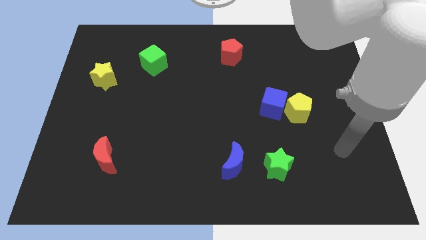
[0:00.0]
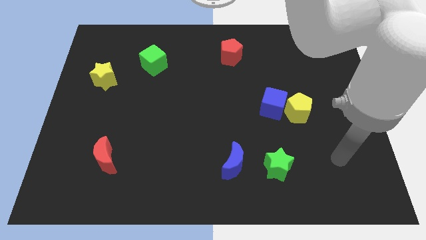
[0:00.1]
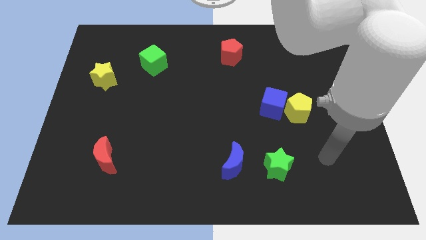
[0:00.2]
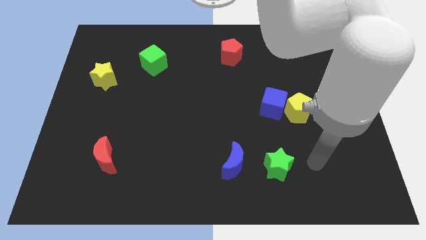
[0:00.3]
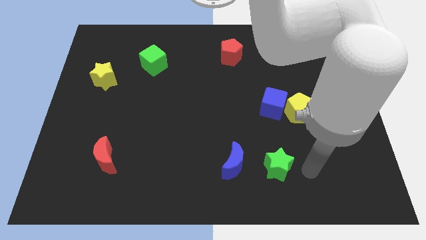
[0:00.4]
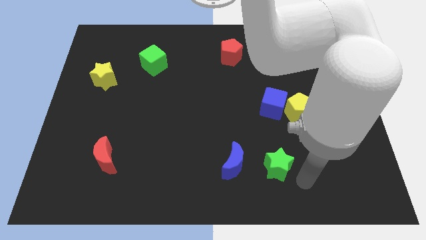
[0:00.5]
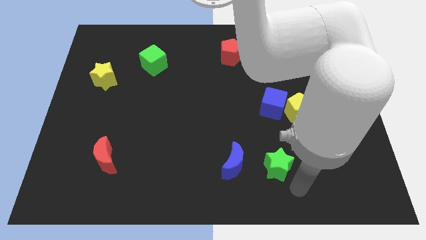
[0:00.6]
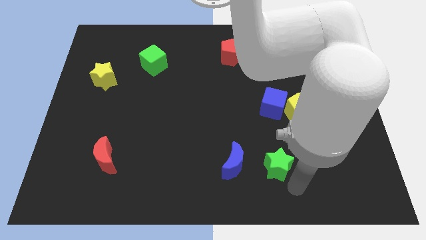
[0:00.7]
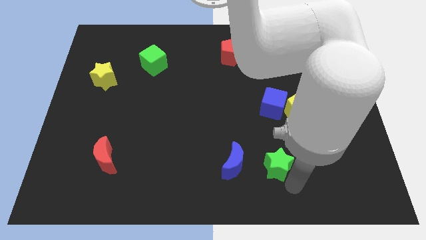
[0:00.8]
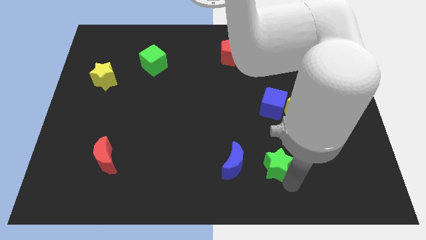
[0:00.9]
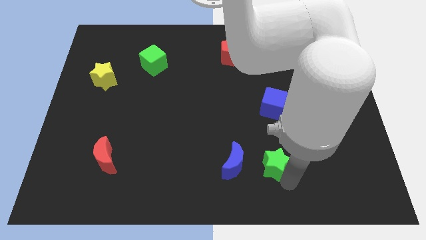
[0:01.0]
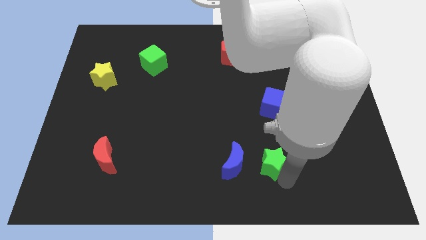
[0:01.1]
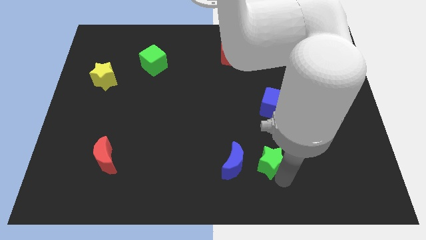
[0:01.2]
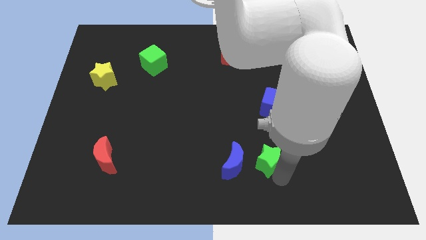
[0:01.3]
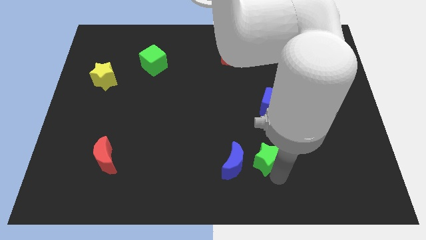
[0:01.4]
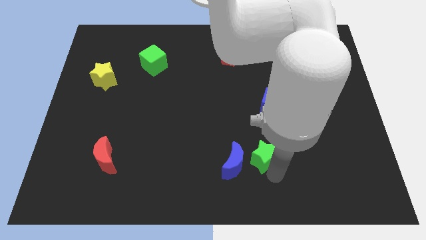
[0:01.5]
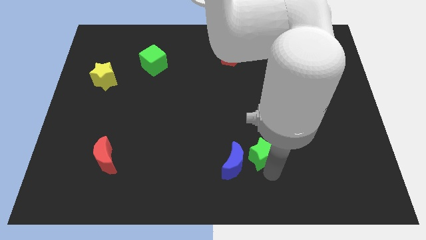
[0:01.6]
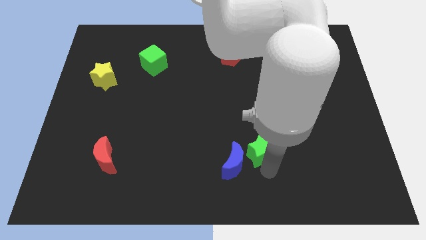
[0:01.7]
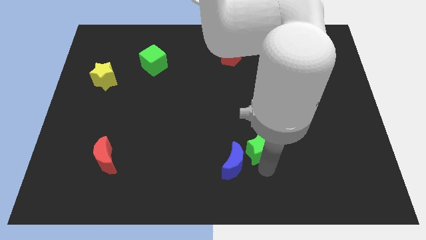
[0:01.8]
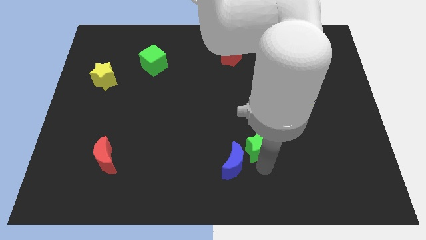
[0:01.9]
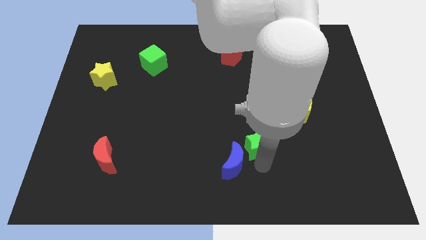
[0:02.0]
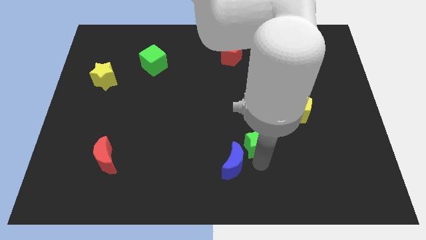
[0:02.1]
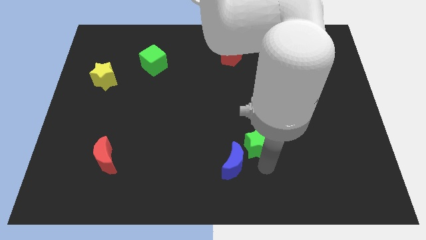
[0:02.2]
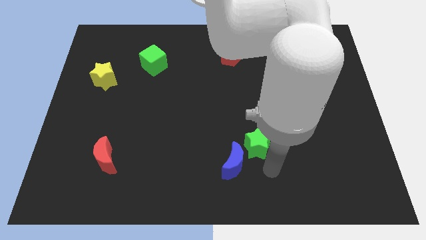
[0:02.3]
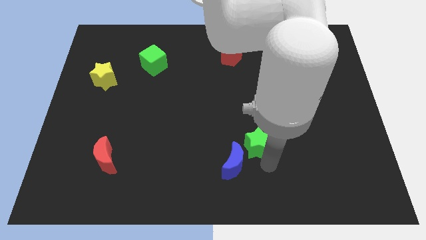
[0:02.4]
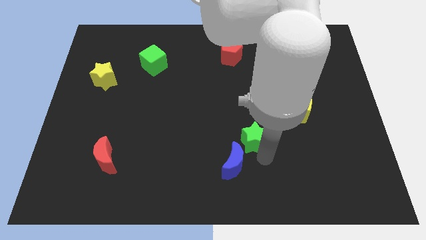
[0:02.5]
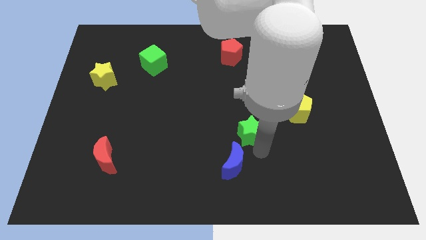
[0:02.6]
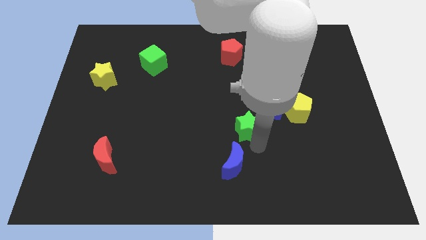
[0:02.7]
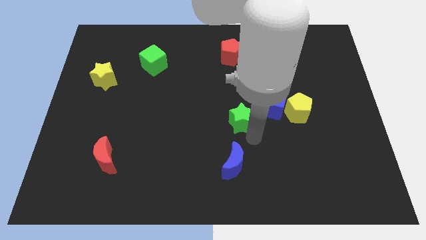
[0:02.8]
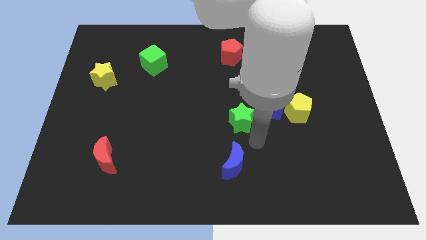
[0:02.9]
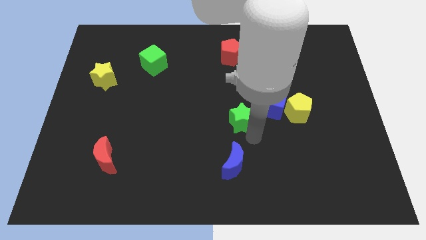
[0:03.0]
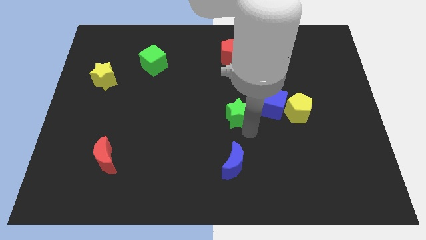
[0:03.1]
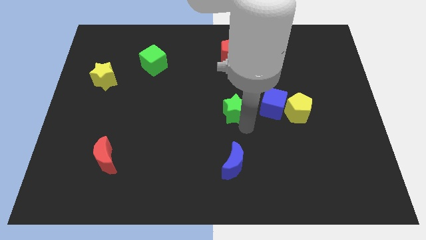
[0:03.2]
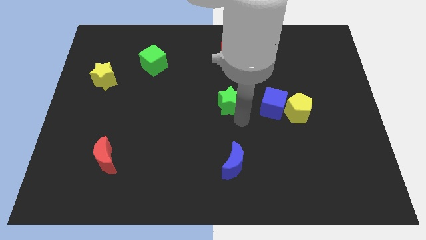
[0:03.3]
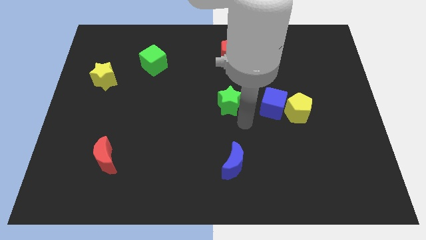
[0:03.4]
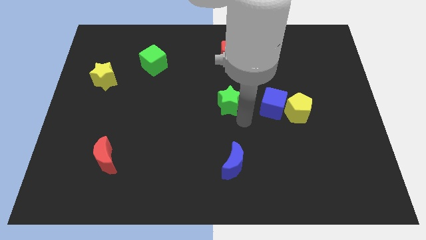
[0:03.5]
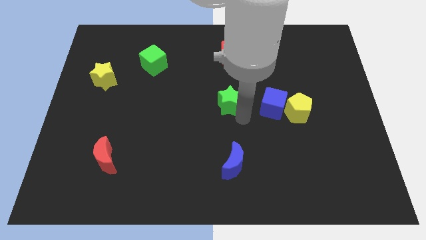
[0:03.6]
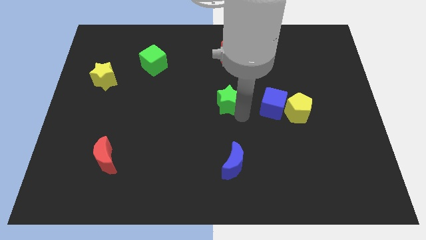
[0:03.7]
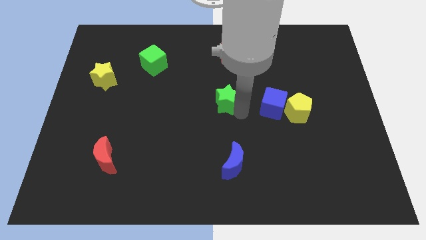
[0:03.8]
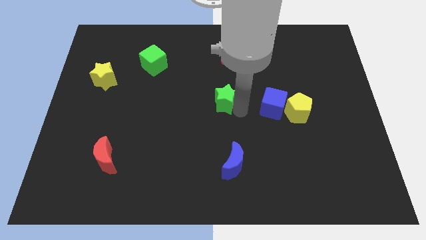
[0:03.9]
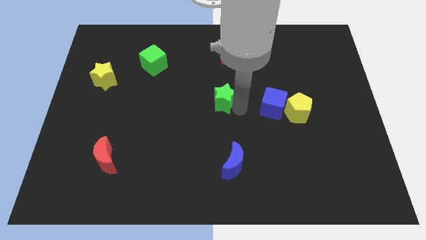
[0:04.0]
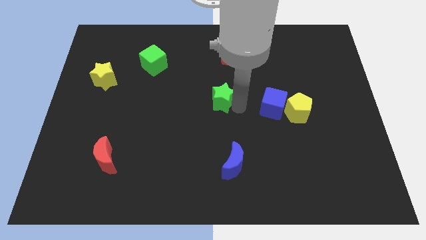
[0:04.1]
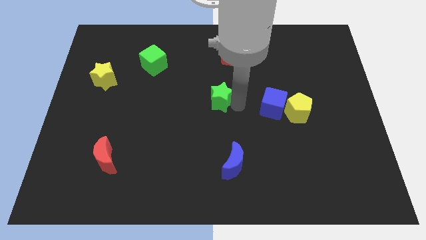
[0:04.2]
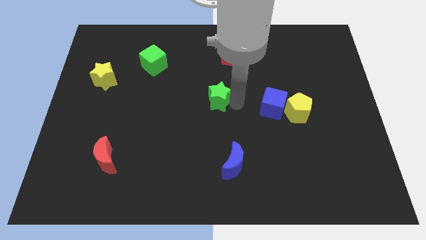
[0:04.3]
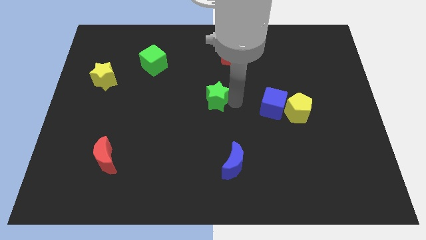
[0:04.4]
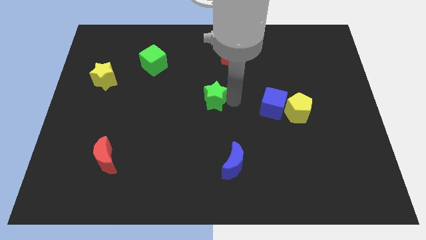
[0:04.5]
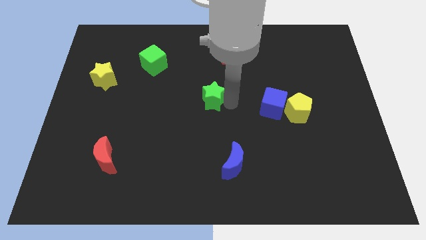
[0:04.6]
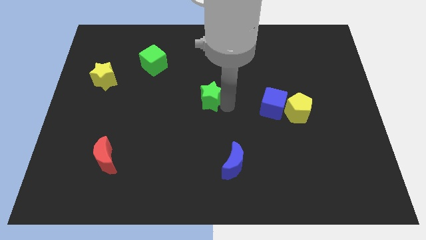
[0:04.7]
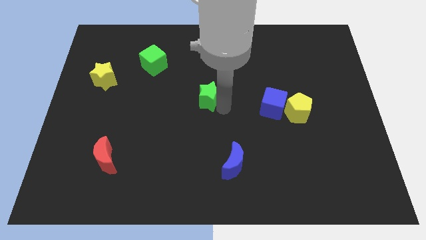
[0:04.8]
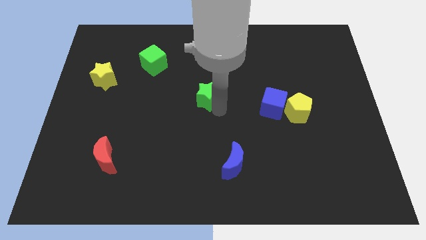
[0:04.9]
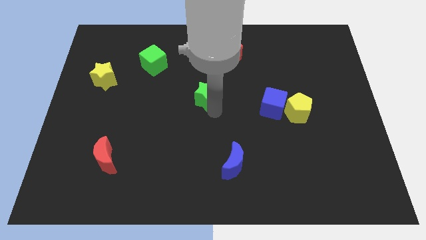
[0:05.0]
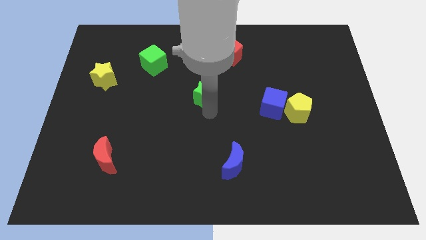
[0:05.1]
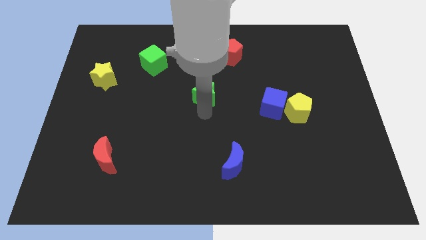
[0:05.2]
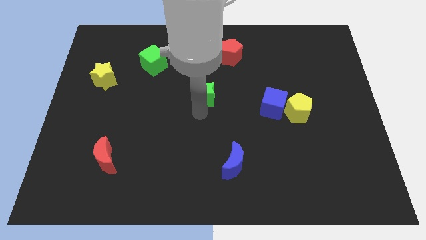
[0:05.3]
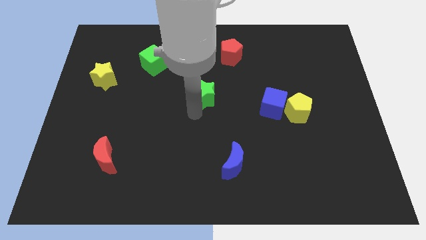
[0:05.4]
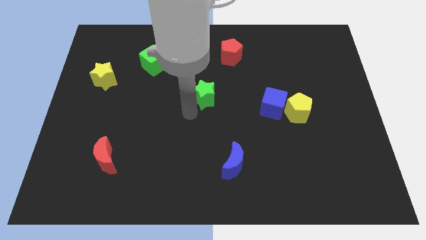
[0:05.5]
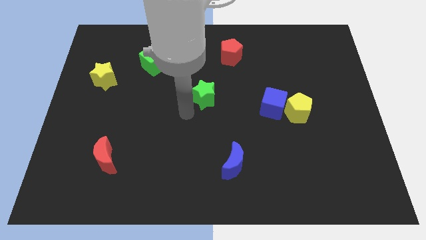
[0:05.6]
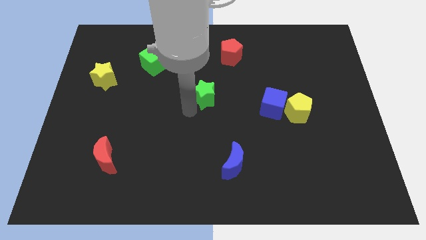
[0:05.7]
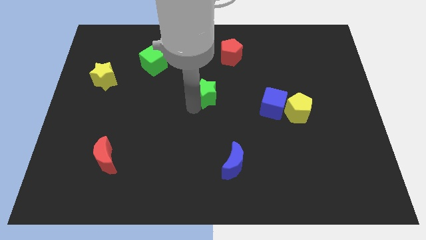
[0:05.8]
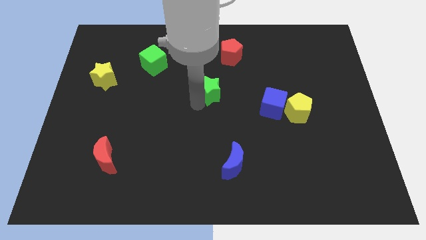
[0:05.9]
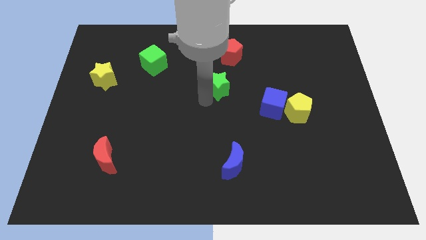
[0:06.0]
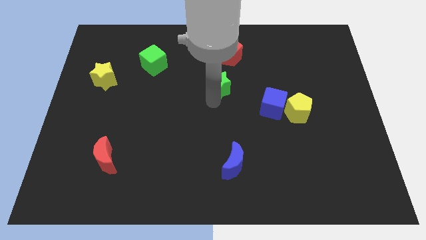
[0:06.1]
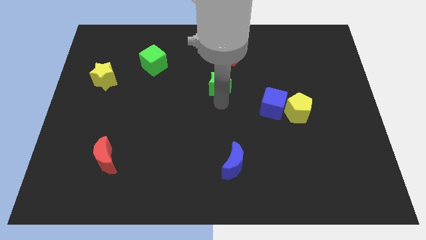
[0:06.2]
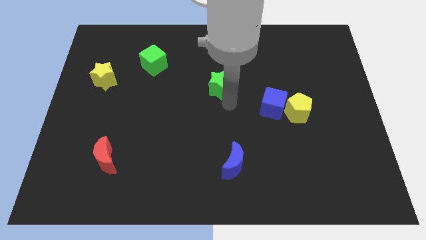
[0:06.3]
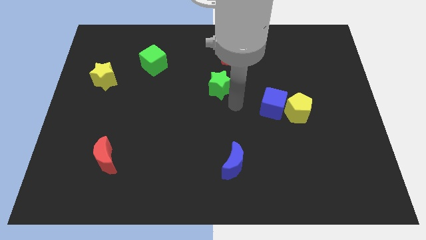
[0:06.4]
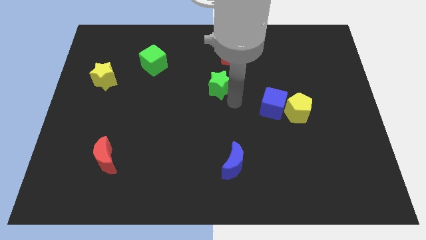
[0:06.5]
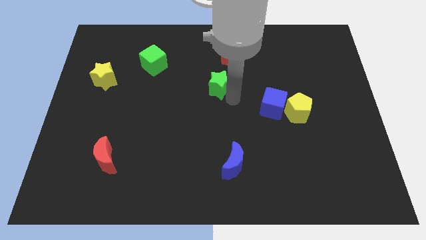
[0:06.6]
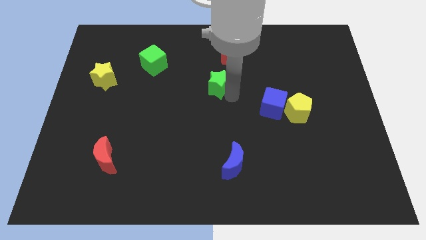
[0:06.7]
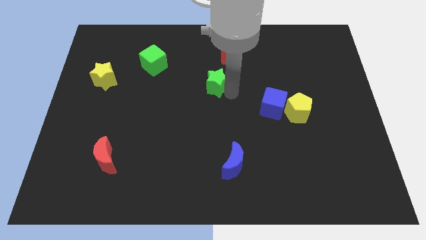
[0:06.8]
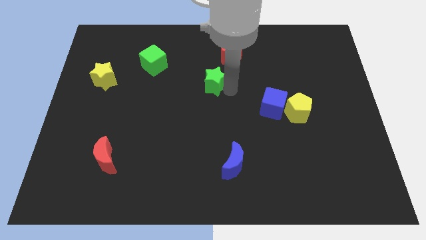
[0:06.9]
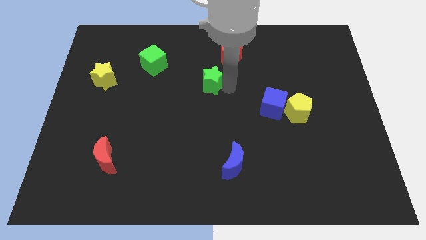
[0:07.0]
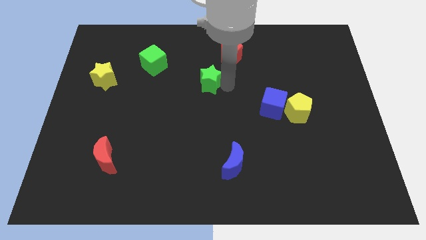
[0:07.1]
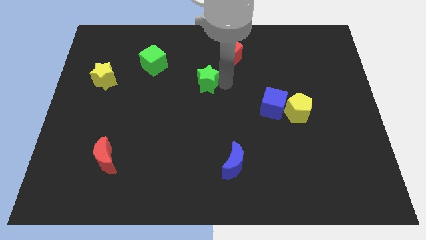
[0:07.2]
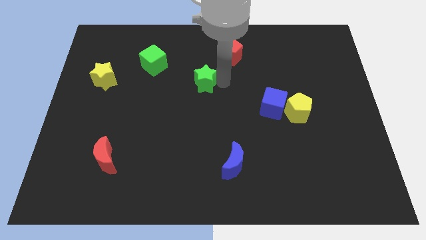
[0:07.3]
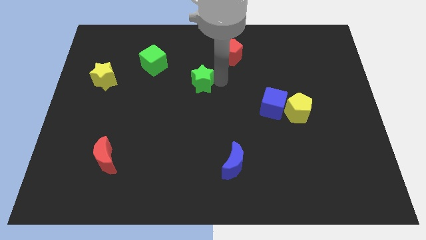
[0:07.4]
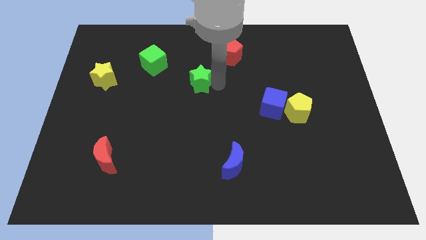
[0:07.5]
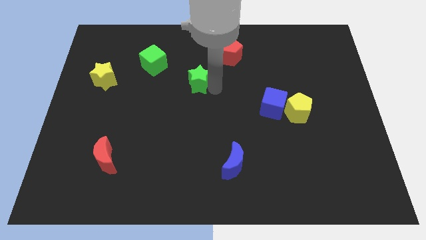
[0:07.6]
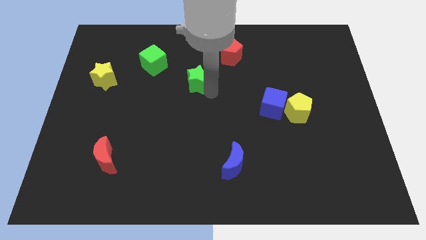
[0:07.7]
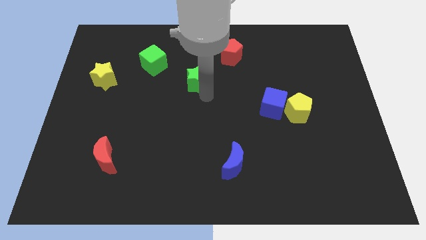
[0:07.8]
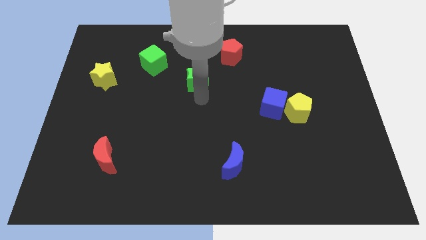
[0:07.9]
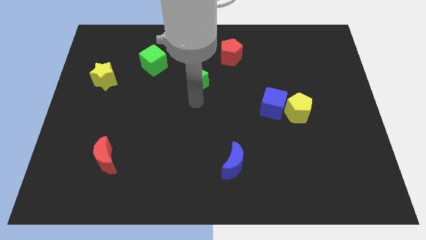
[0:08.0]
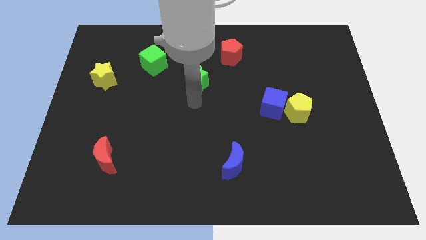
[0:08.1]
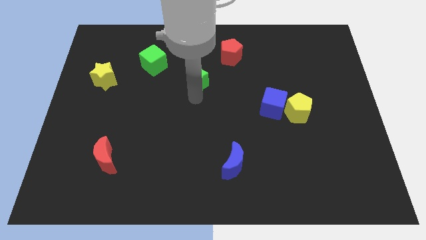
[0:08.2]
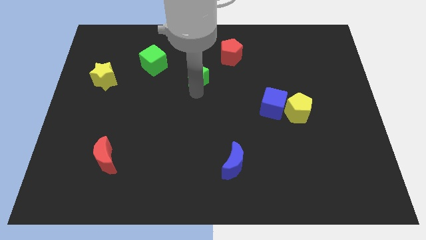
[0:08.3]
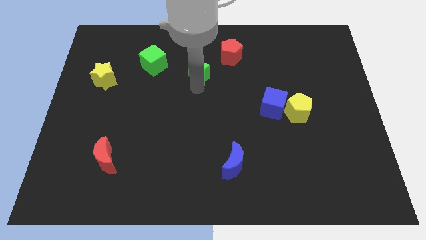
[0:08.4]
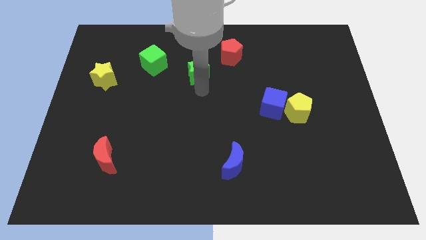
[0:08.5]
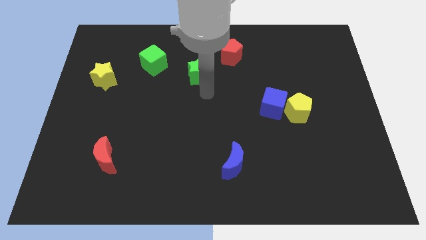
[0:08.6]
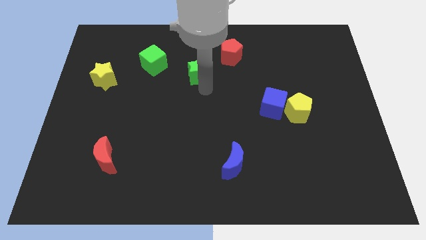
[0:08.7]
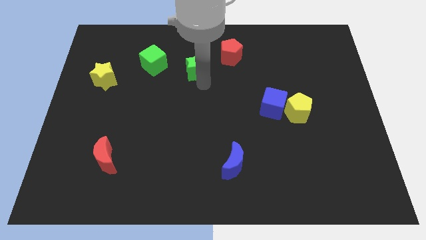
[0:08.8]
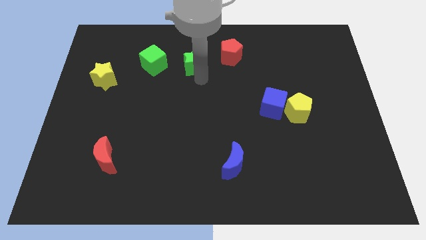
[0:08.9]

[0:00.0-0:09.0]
push the green star left of the red pentagon
